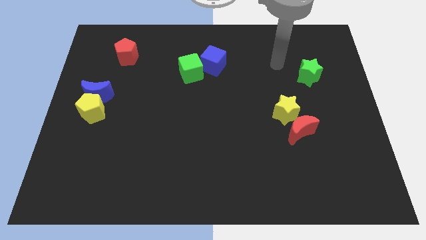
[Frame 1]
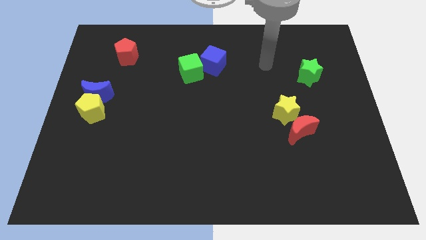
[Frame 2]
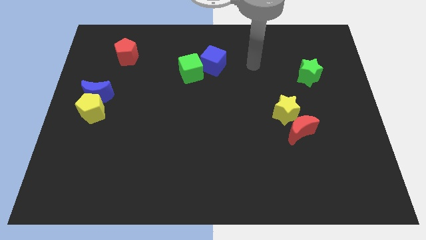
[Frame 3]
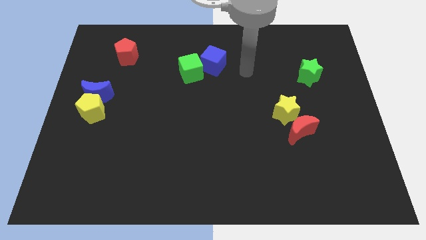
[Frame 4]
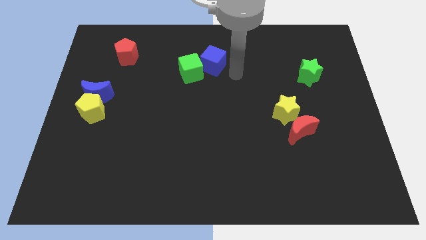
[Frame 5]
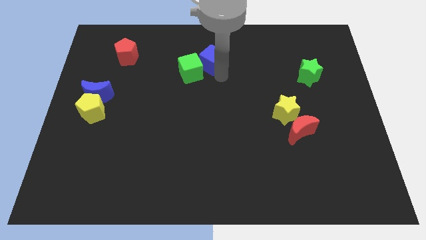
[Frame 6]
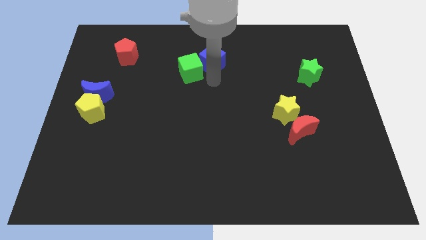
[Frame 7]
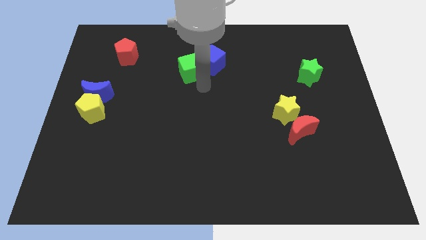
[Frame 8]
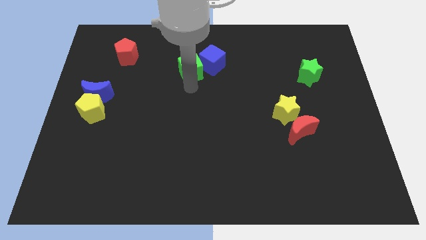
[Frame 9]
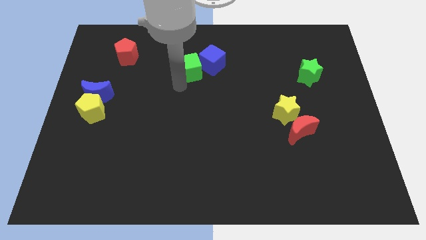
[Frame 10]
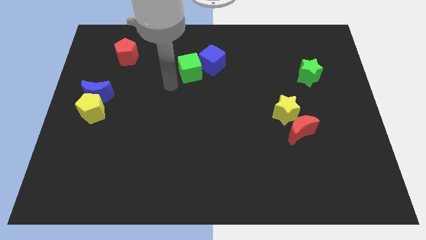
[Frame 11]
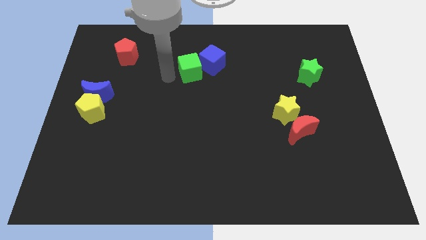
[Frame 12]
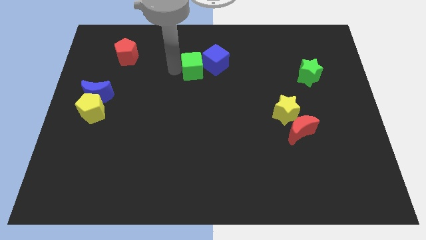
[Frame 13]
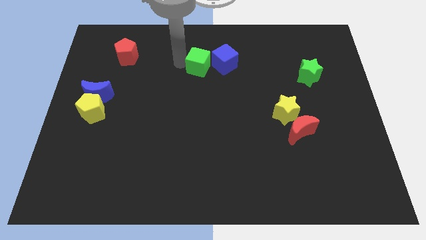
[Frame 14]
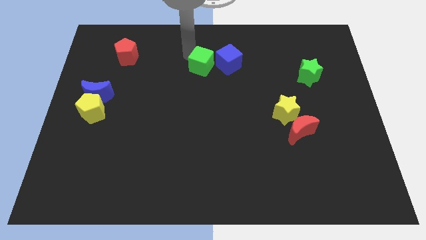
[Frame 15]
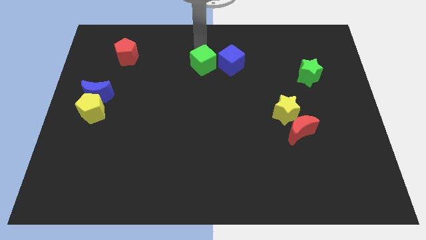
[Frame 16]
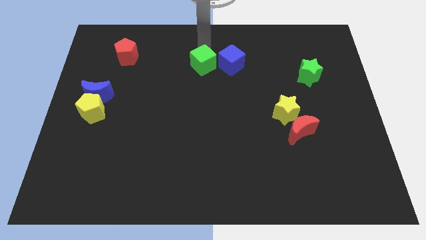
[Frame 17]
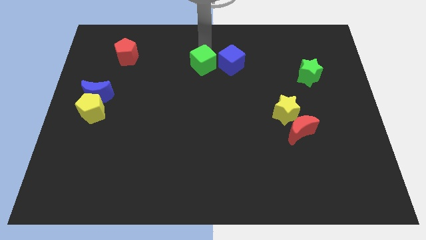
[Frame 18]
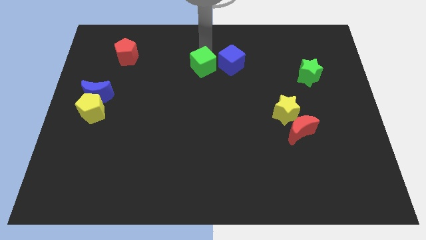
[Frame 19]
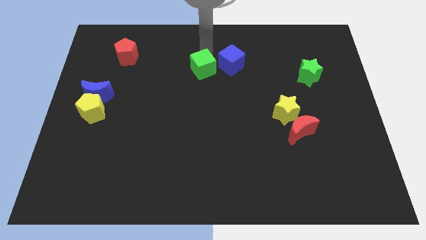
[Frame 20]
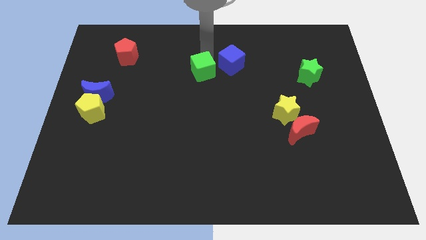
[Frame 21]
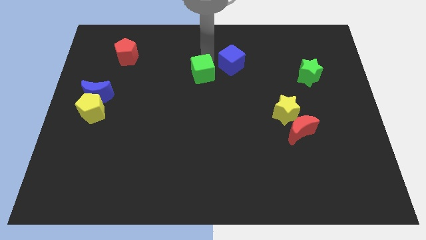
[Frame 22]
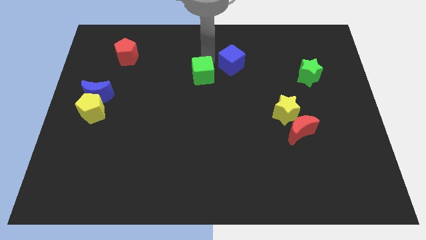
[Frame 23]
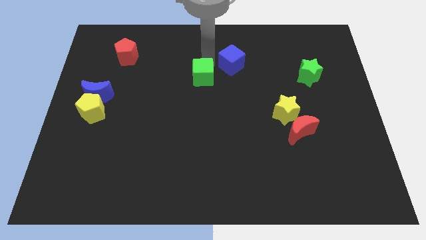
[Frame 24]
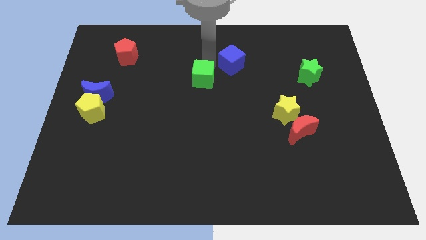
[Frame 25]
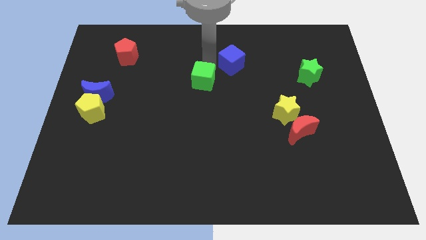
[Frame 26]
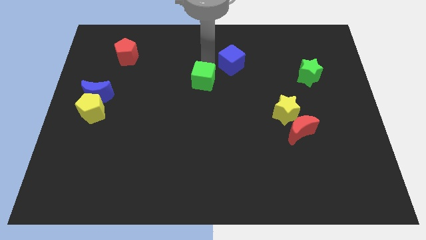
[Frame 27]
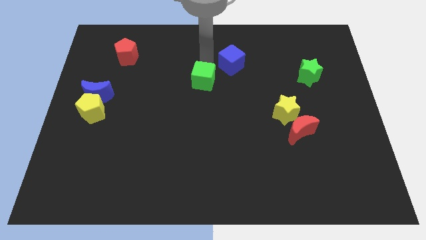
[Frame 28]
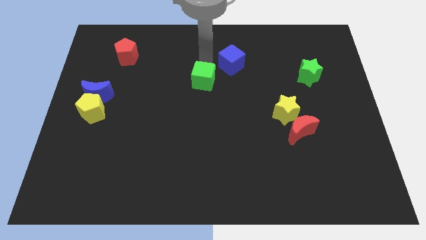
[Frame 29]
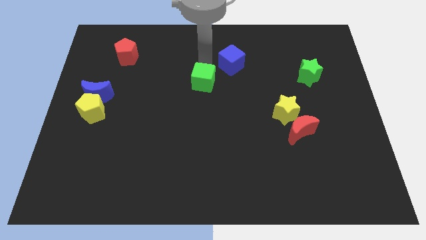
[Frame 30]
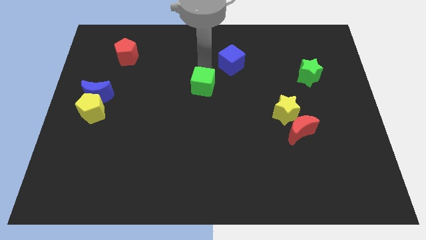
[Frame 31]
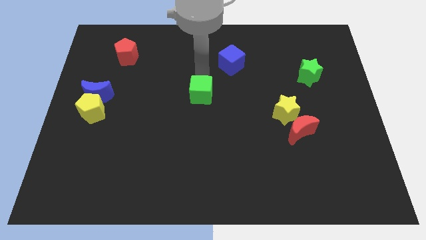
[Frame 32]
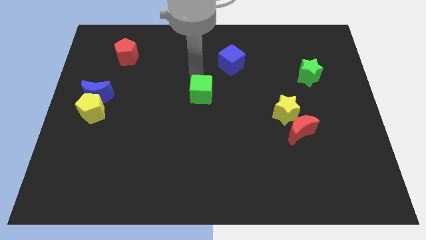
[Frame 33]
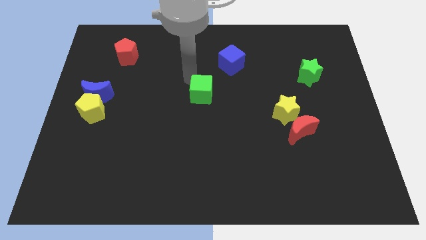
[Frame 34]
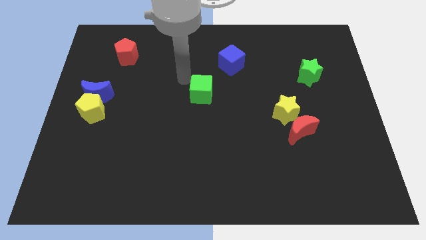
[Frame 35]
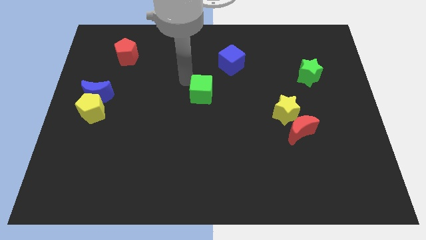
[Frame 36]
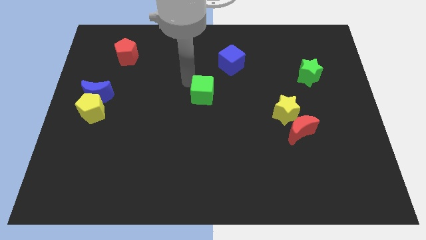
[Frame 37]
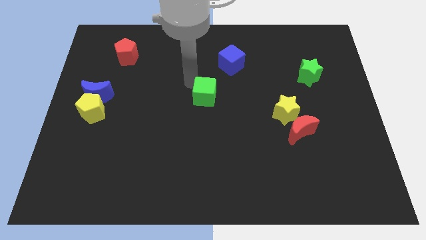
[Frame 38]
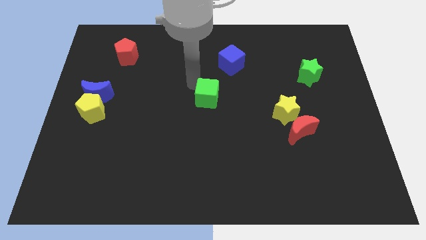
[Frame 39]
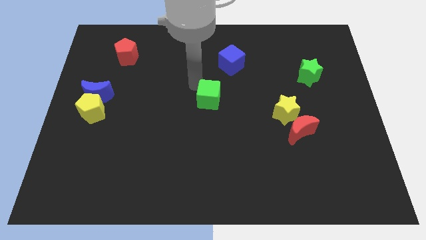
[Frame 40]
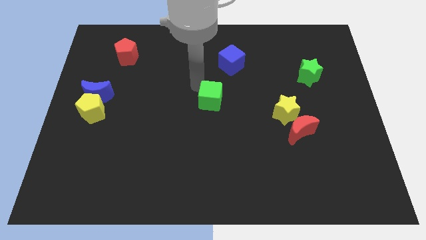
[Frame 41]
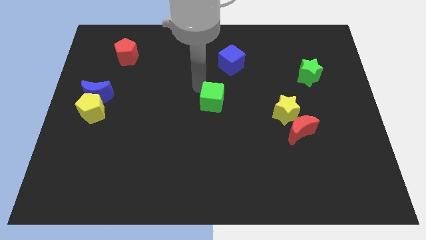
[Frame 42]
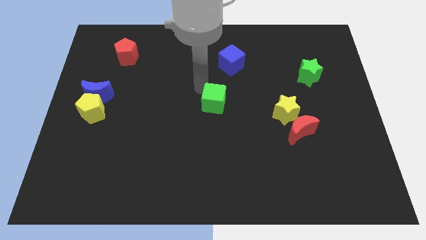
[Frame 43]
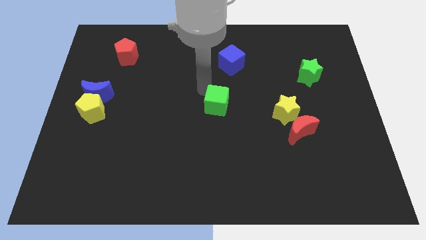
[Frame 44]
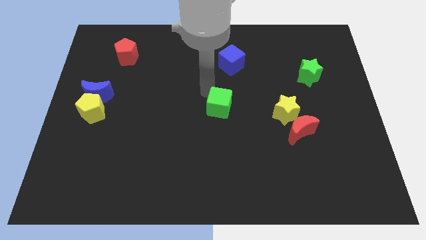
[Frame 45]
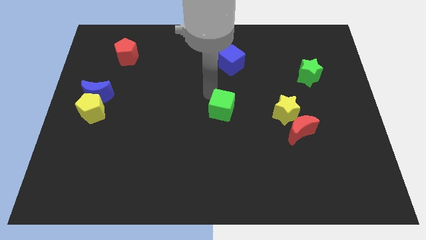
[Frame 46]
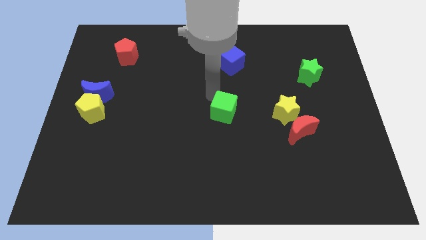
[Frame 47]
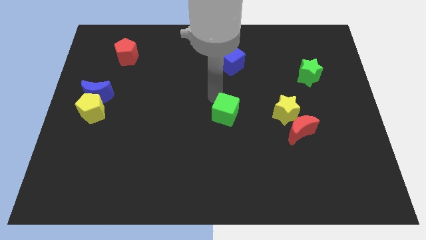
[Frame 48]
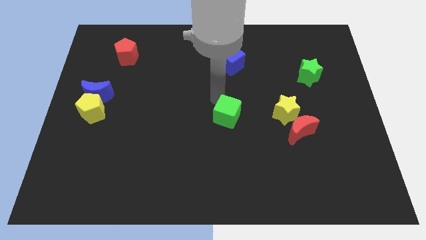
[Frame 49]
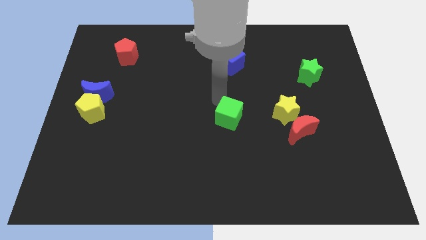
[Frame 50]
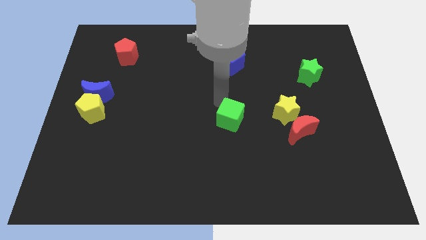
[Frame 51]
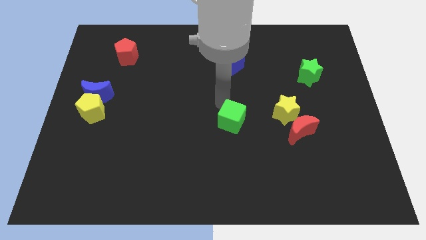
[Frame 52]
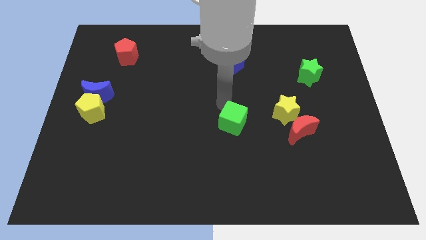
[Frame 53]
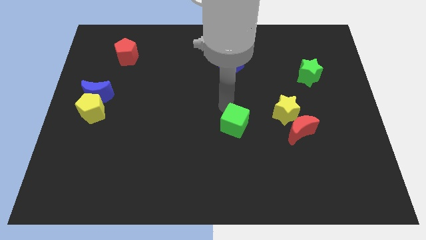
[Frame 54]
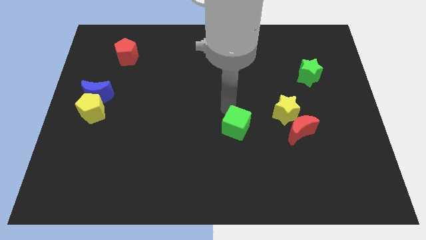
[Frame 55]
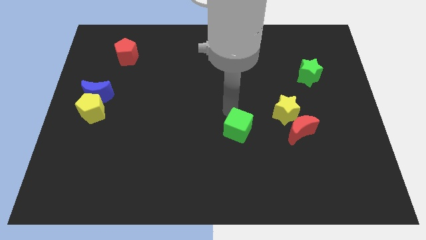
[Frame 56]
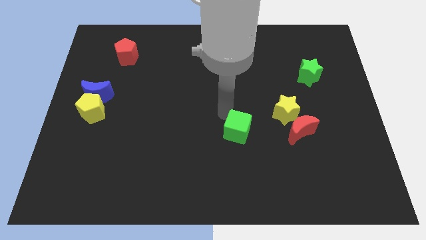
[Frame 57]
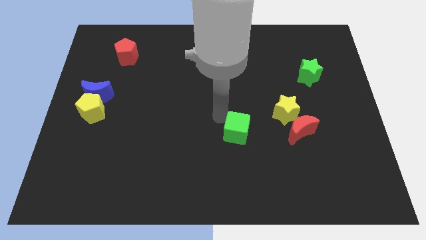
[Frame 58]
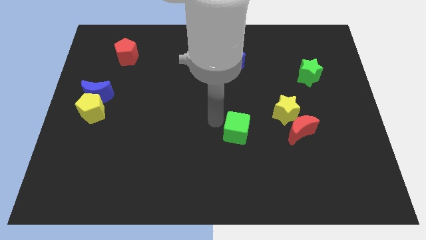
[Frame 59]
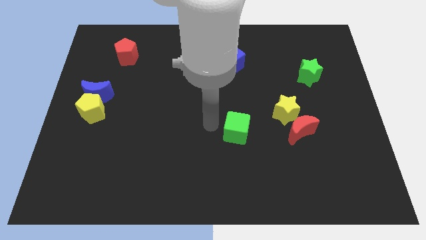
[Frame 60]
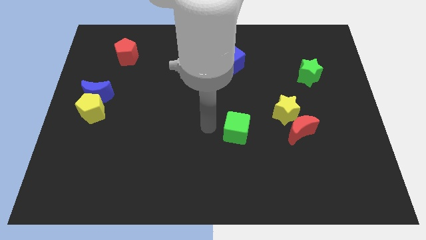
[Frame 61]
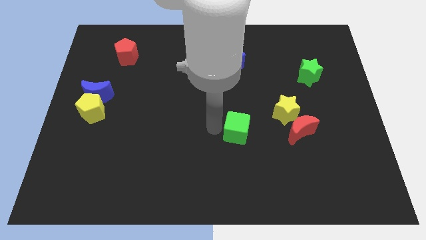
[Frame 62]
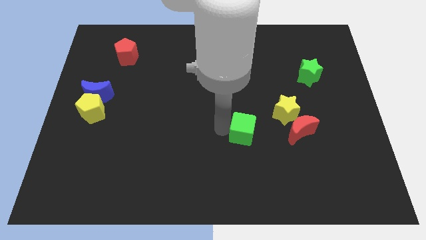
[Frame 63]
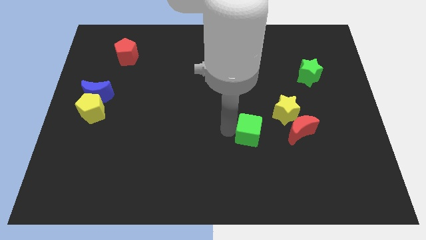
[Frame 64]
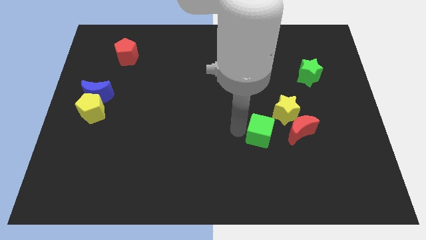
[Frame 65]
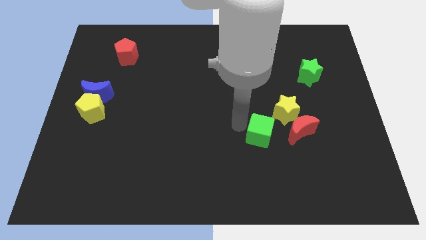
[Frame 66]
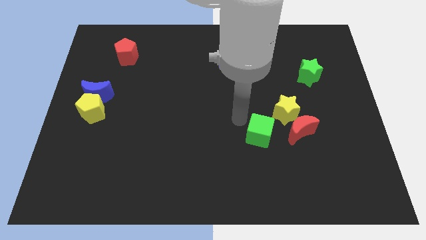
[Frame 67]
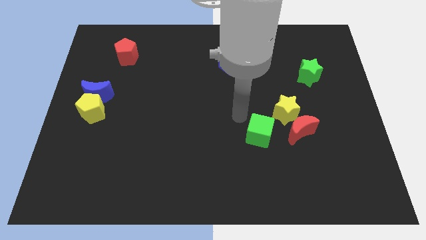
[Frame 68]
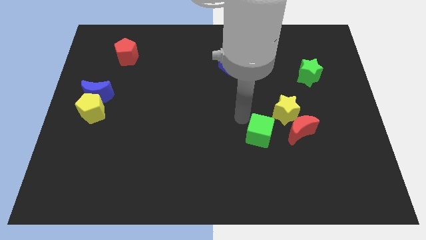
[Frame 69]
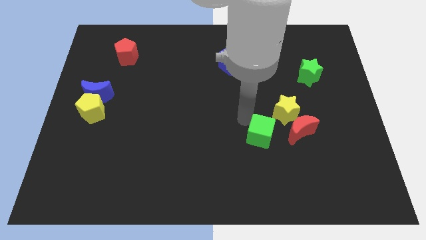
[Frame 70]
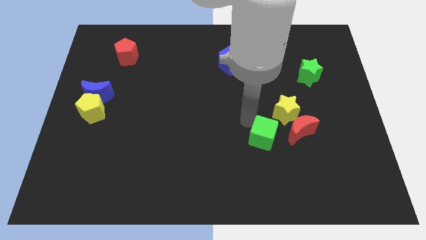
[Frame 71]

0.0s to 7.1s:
move the green cube diagonally down and to the left of the red moon
